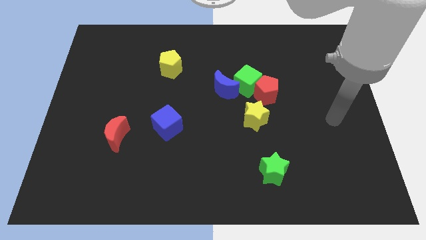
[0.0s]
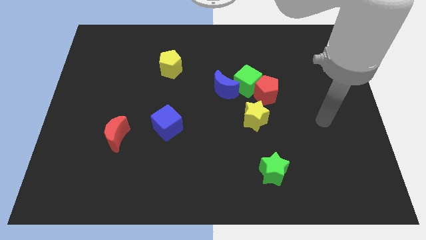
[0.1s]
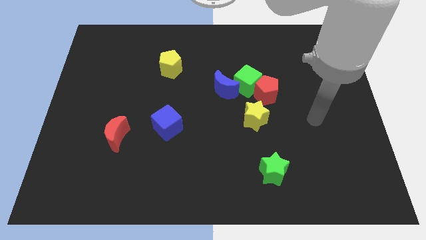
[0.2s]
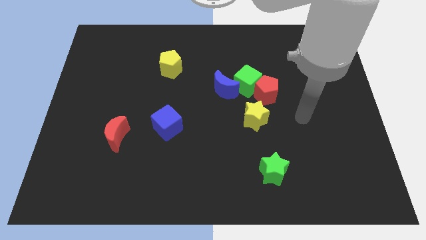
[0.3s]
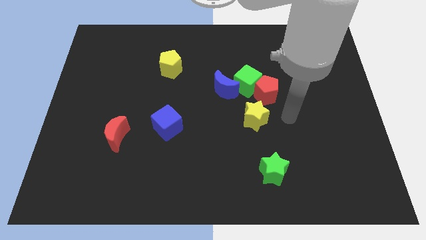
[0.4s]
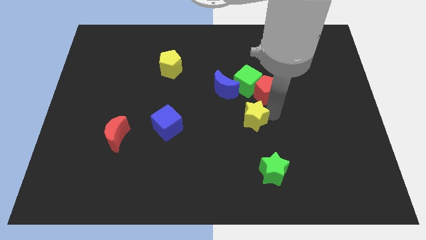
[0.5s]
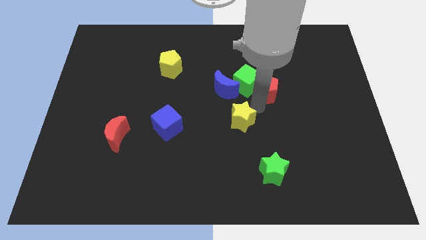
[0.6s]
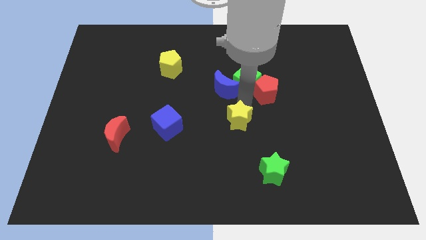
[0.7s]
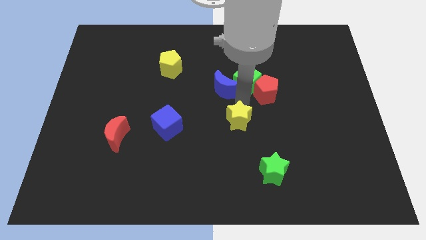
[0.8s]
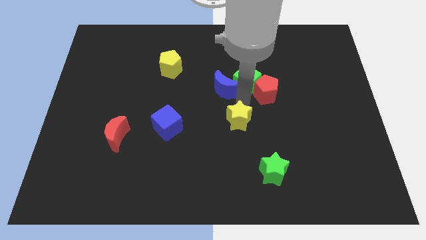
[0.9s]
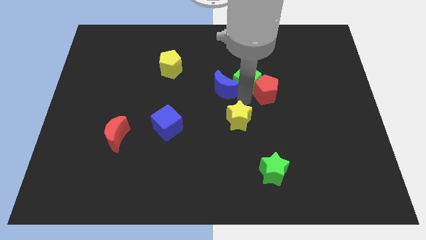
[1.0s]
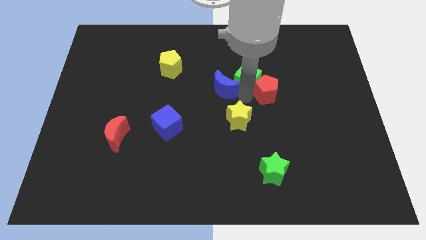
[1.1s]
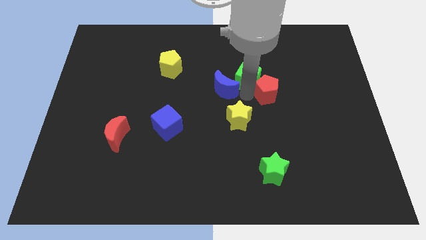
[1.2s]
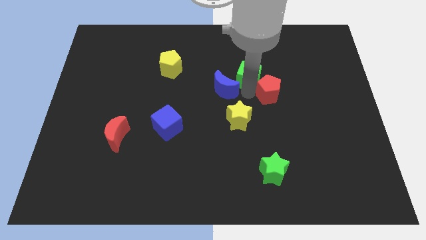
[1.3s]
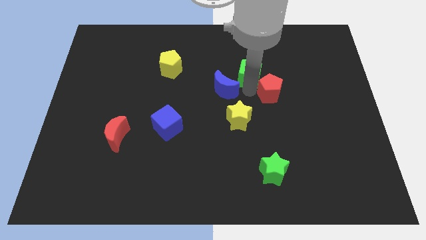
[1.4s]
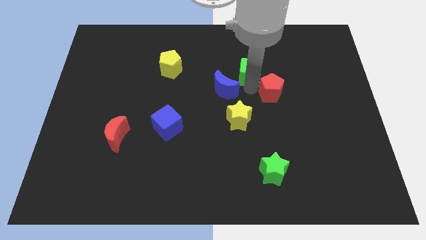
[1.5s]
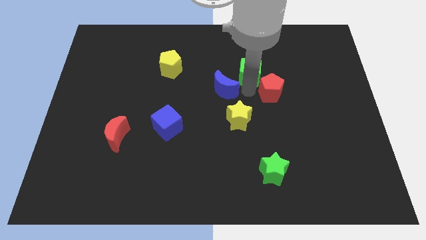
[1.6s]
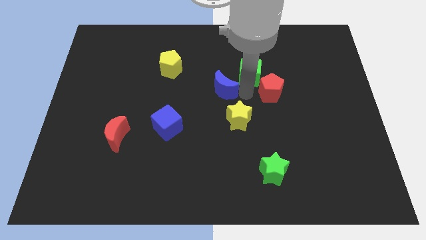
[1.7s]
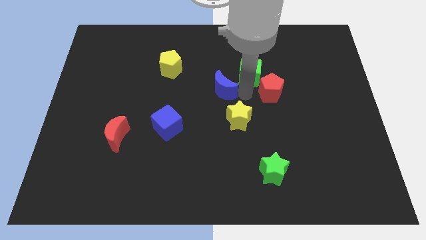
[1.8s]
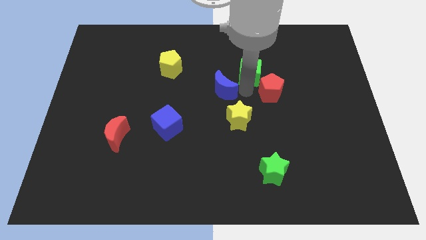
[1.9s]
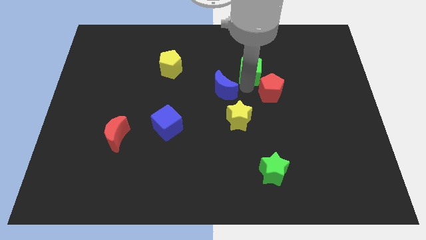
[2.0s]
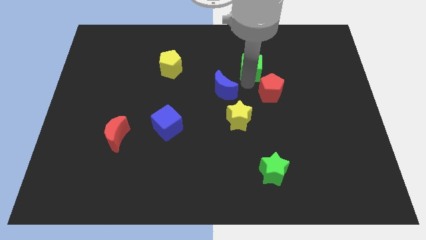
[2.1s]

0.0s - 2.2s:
separate the green cube from the red pentagon, blue moon, and yellow star

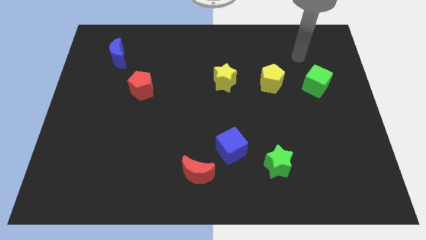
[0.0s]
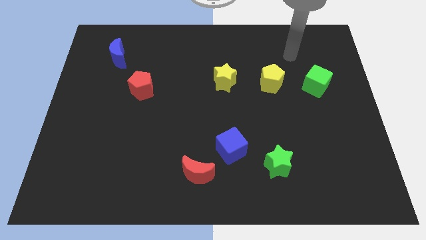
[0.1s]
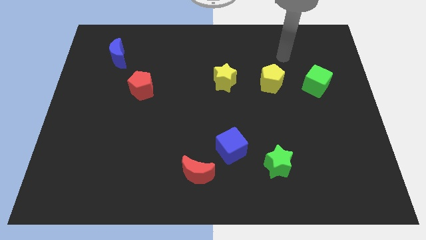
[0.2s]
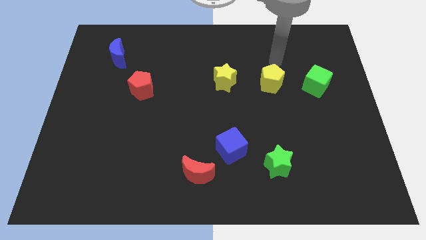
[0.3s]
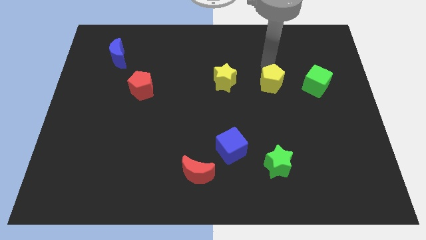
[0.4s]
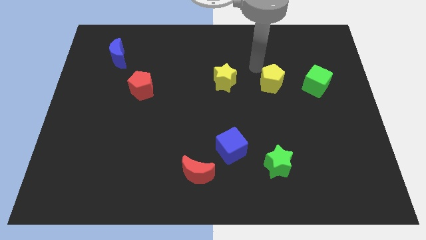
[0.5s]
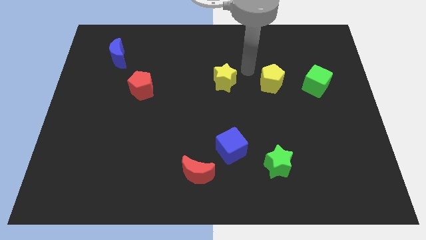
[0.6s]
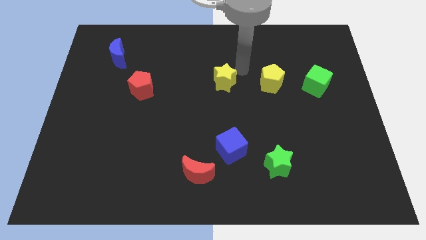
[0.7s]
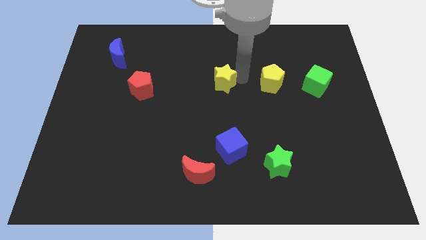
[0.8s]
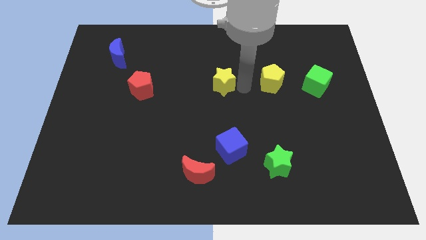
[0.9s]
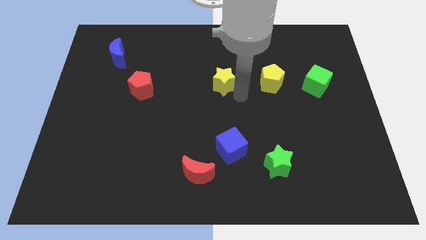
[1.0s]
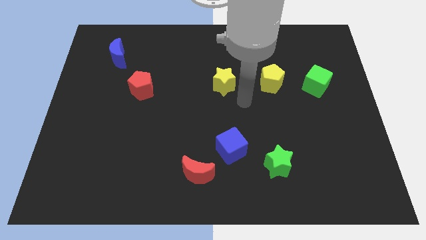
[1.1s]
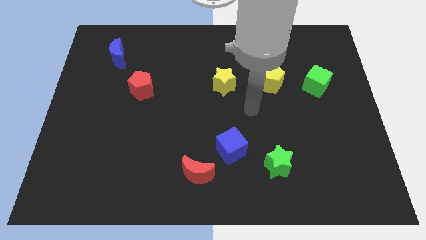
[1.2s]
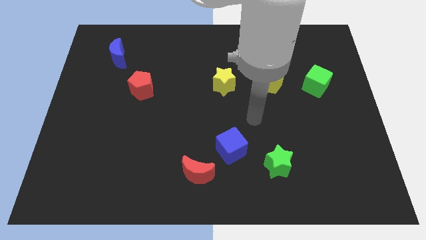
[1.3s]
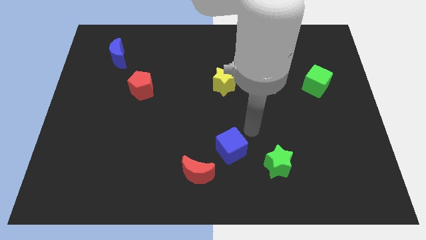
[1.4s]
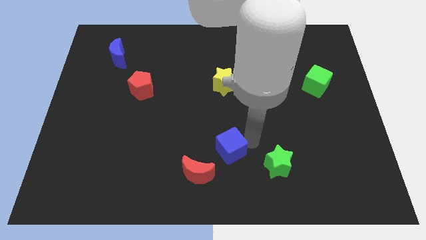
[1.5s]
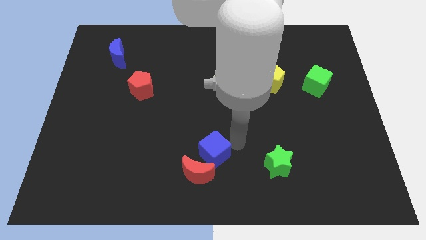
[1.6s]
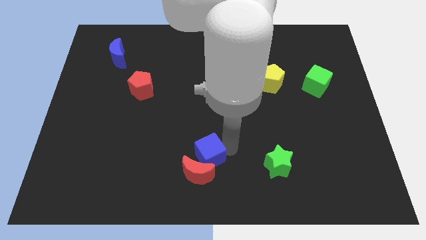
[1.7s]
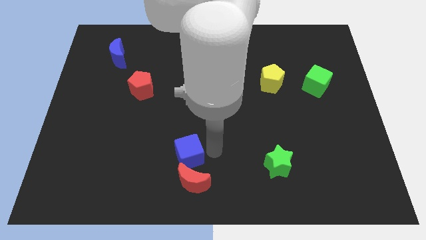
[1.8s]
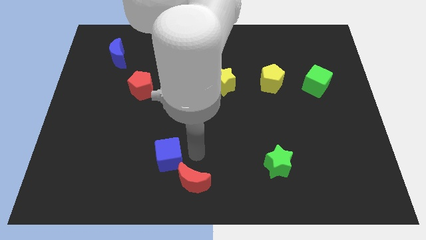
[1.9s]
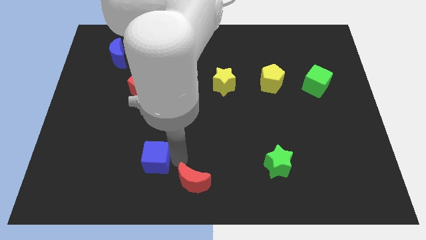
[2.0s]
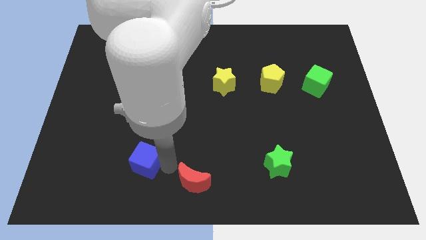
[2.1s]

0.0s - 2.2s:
move the red moon away from the blue cube

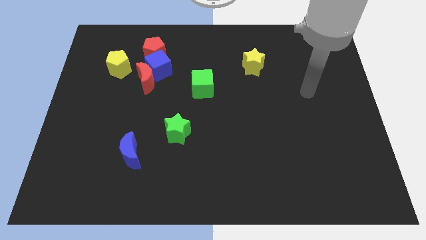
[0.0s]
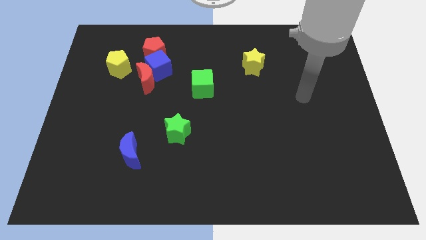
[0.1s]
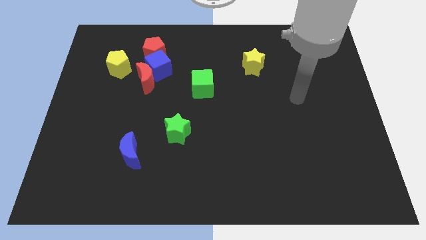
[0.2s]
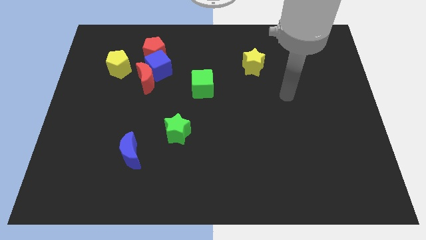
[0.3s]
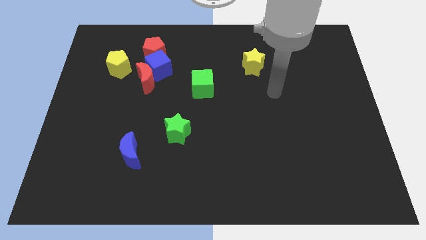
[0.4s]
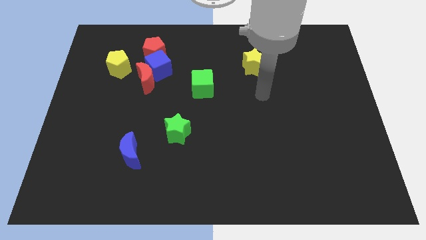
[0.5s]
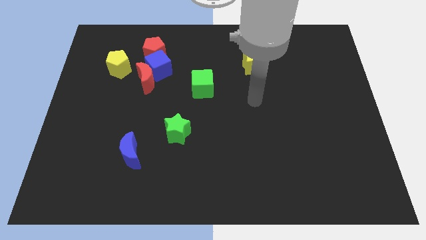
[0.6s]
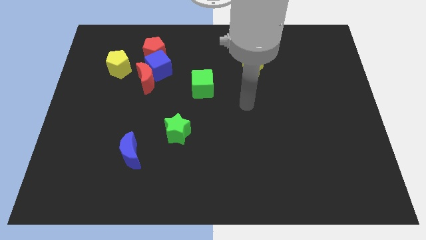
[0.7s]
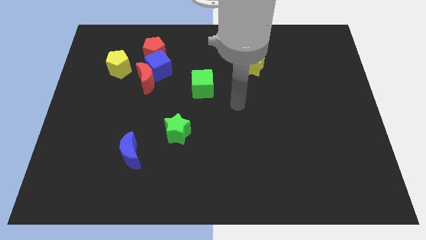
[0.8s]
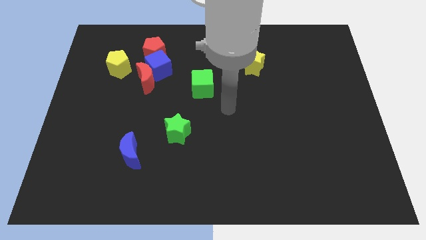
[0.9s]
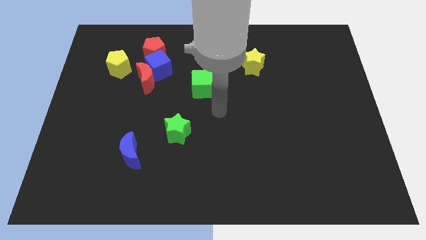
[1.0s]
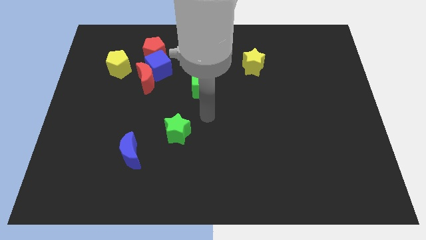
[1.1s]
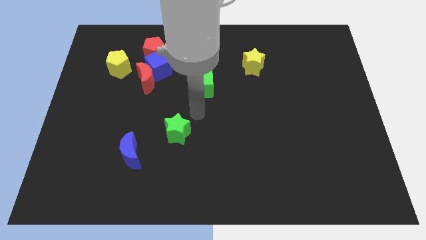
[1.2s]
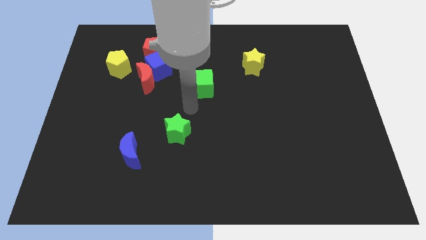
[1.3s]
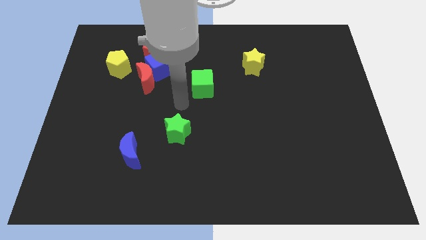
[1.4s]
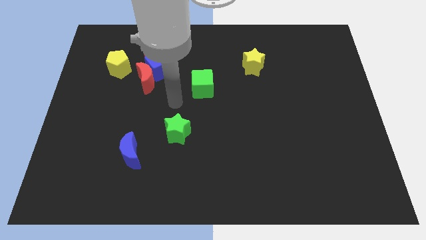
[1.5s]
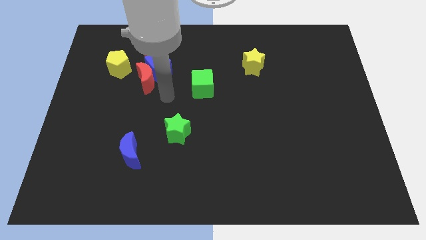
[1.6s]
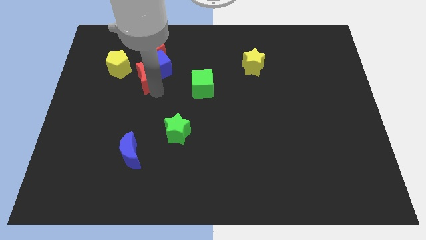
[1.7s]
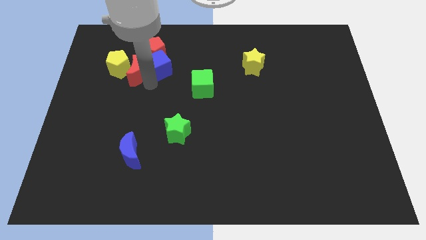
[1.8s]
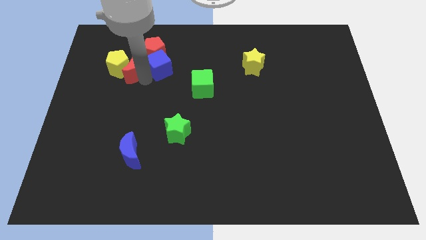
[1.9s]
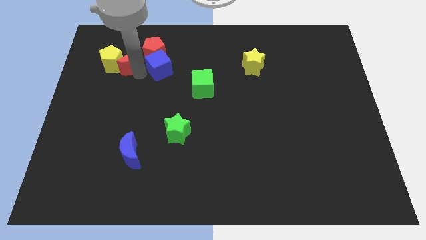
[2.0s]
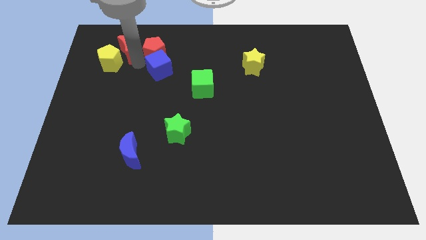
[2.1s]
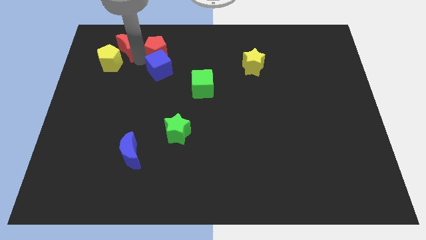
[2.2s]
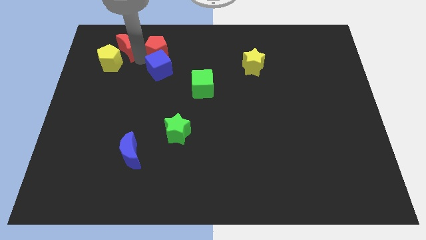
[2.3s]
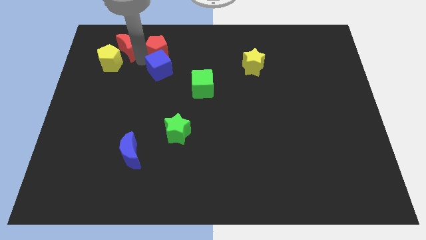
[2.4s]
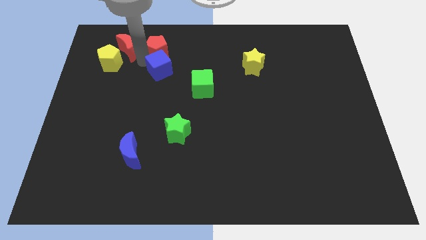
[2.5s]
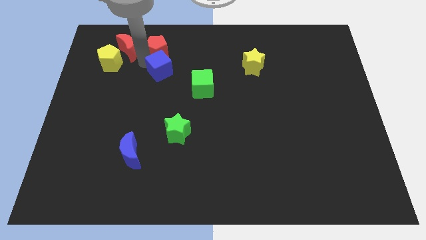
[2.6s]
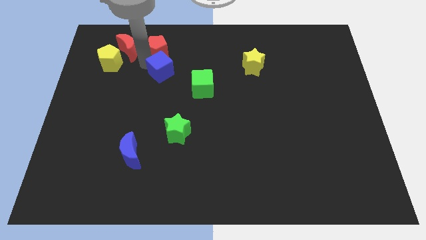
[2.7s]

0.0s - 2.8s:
separate the blue cube from the group of blocks

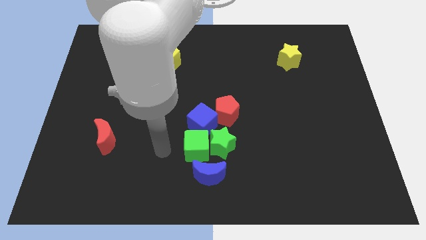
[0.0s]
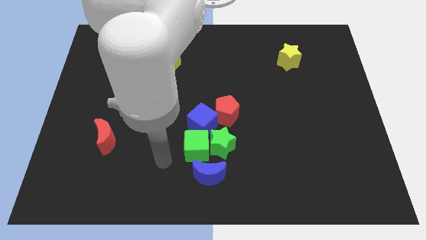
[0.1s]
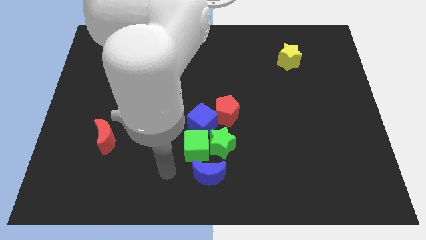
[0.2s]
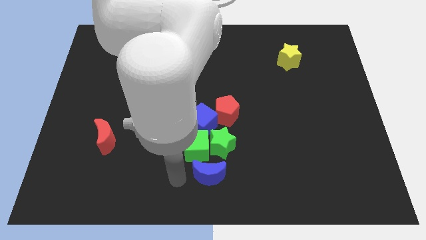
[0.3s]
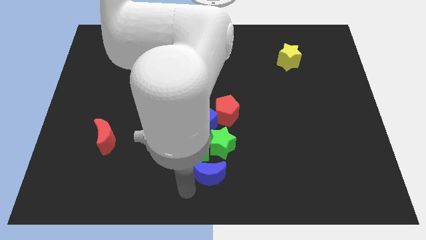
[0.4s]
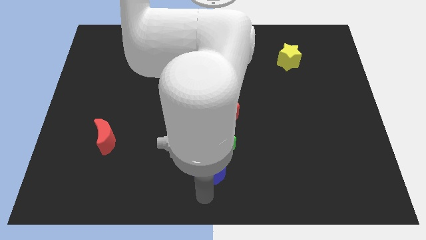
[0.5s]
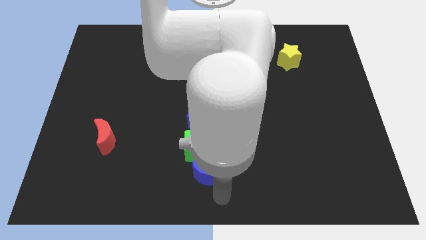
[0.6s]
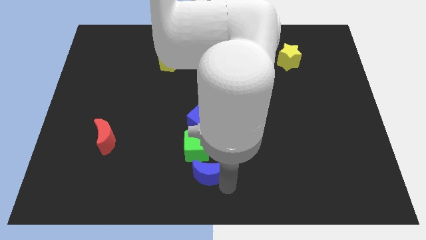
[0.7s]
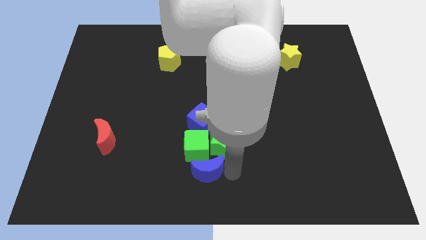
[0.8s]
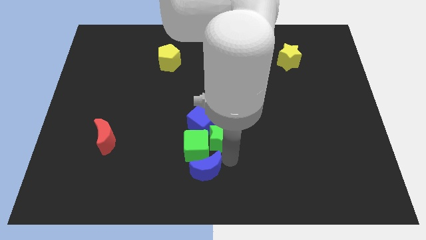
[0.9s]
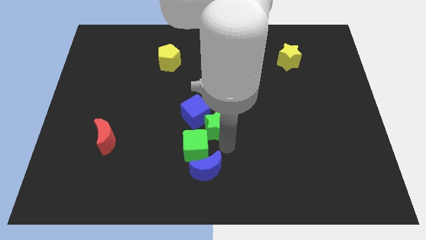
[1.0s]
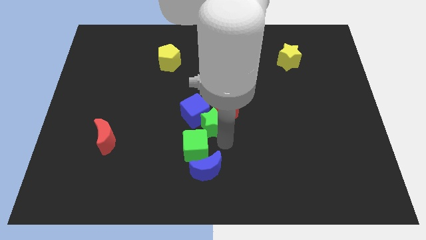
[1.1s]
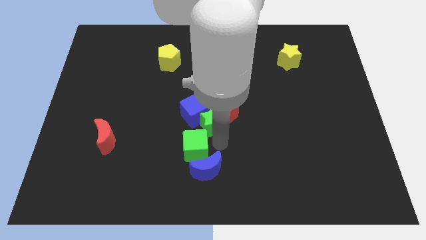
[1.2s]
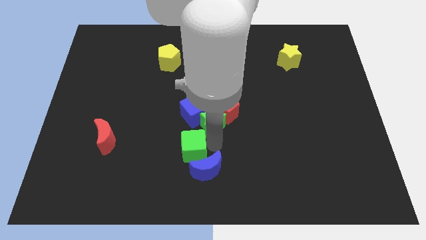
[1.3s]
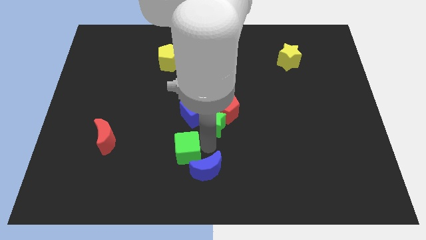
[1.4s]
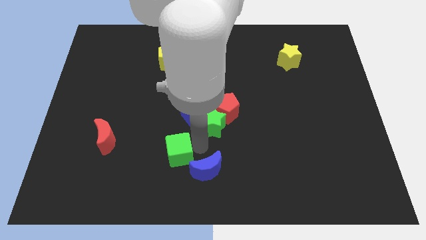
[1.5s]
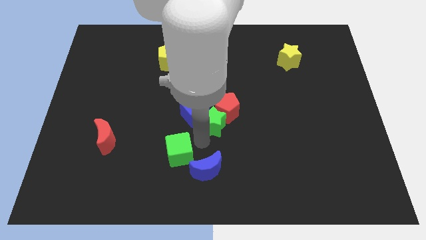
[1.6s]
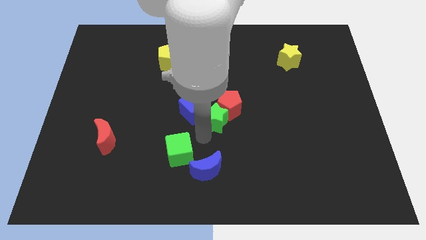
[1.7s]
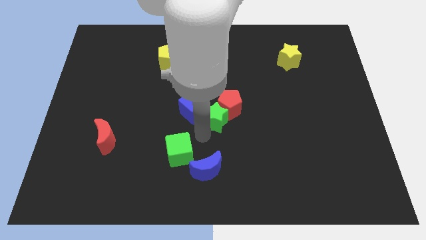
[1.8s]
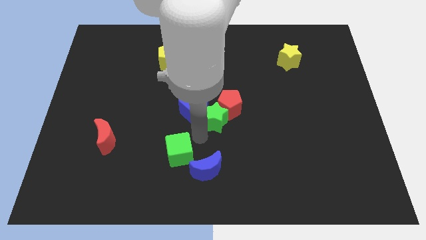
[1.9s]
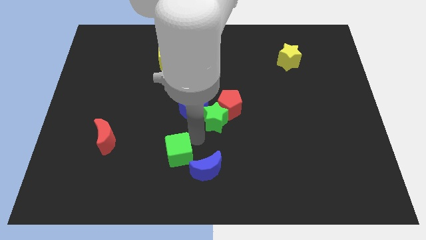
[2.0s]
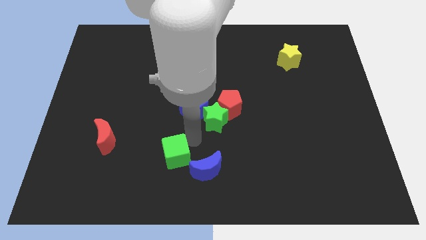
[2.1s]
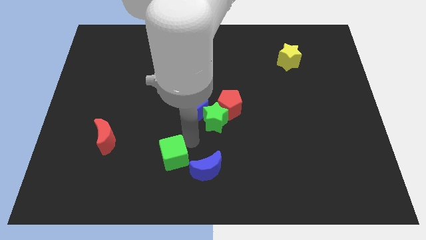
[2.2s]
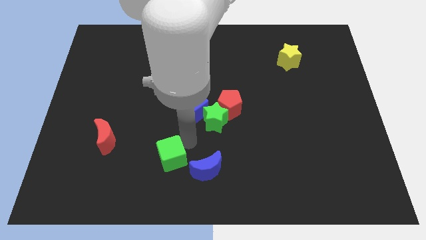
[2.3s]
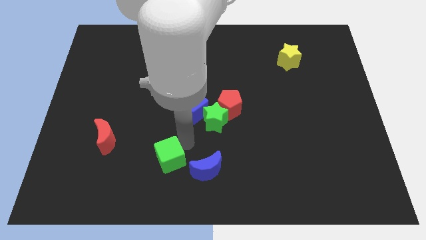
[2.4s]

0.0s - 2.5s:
move the green cube away from the clump
